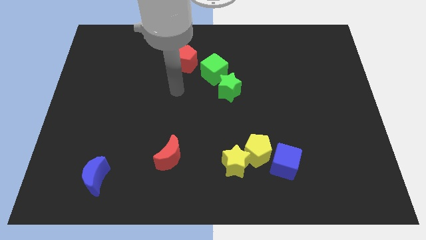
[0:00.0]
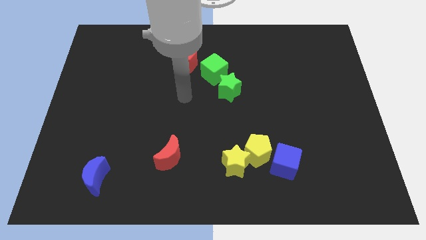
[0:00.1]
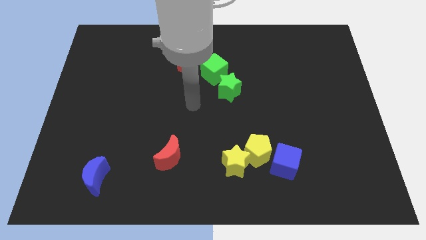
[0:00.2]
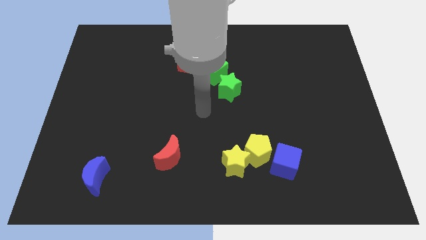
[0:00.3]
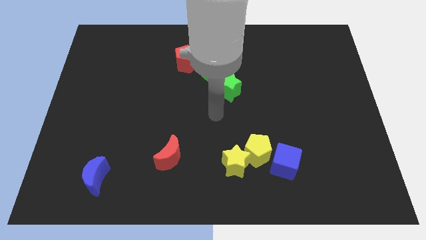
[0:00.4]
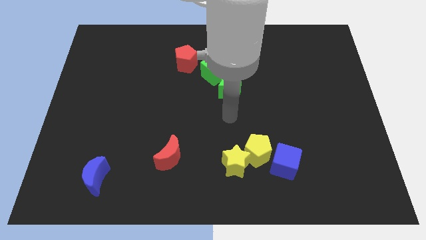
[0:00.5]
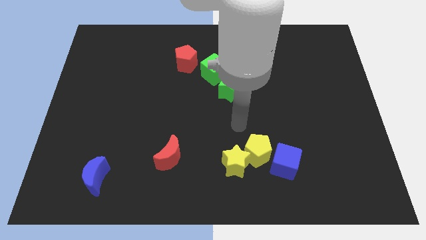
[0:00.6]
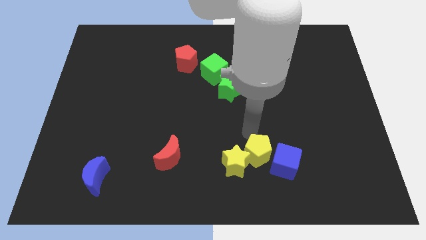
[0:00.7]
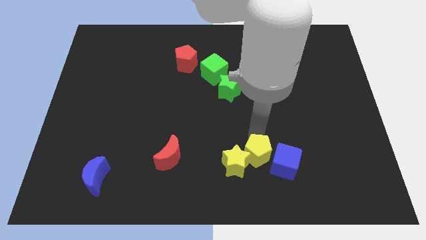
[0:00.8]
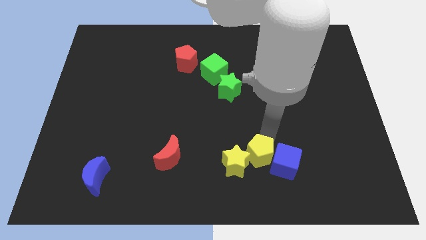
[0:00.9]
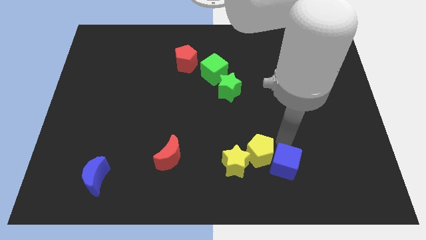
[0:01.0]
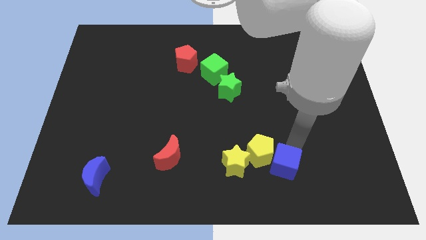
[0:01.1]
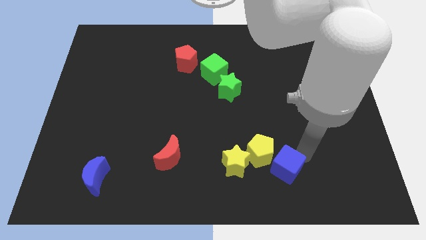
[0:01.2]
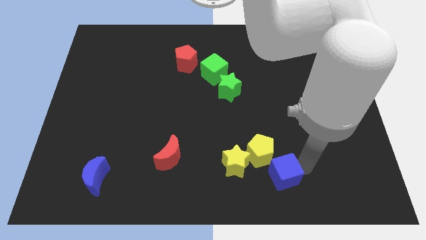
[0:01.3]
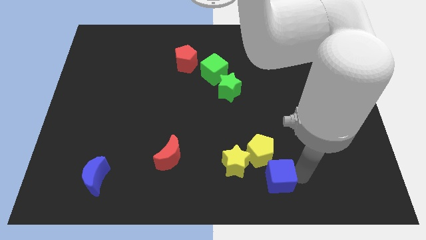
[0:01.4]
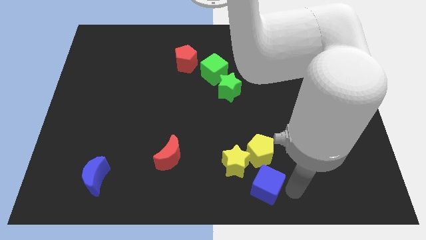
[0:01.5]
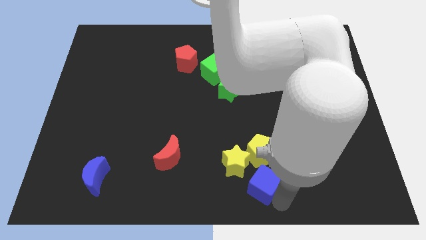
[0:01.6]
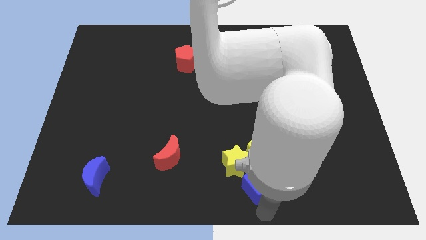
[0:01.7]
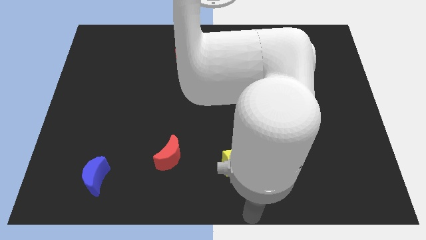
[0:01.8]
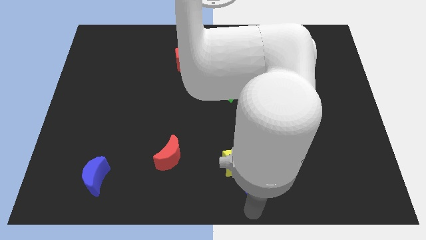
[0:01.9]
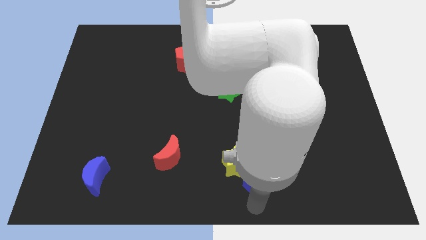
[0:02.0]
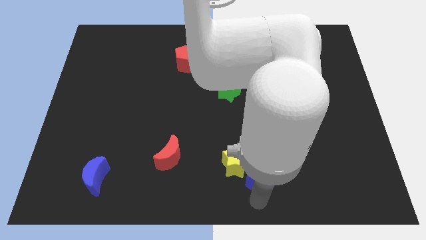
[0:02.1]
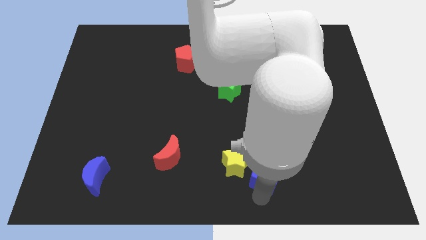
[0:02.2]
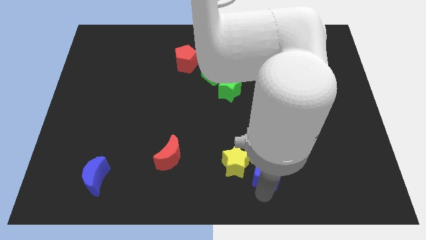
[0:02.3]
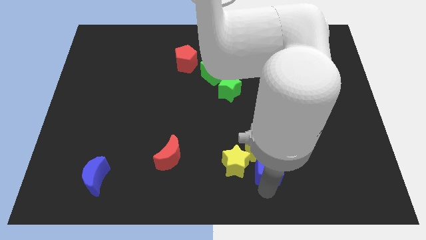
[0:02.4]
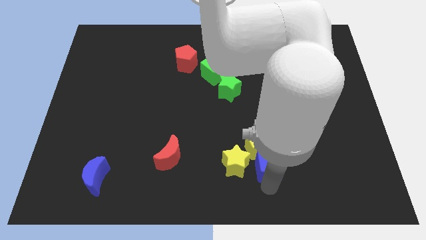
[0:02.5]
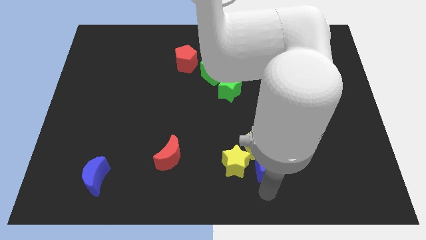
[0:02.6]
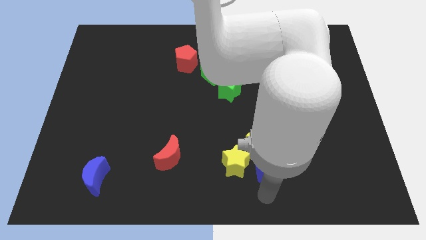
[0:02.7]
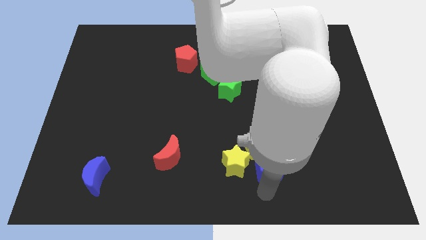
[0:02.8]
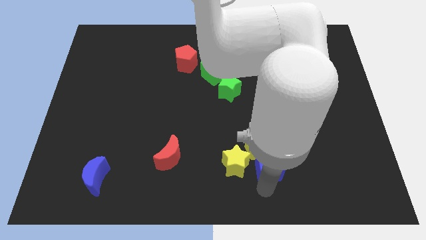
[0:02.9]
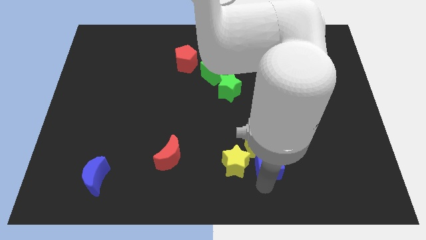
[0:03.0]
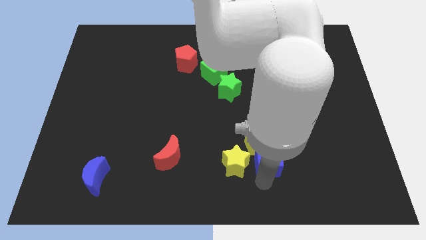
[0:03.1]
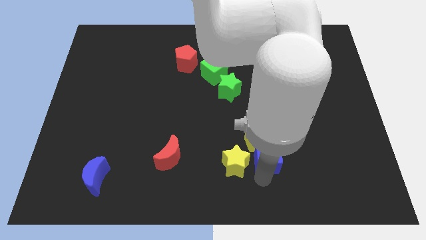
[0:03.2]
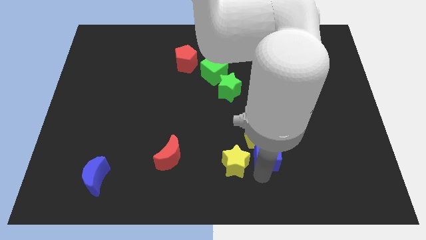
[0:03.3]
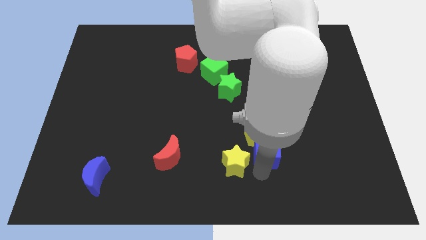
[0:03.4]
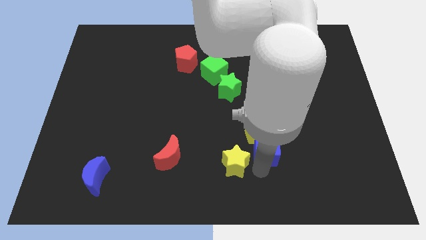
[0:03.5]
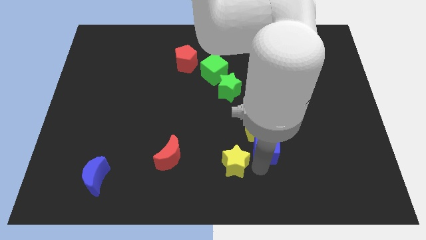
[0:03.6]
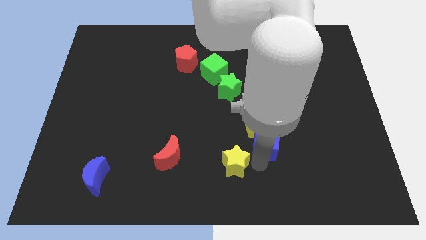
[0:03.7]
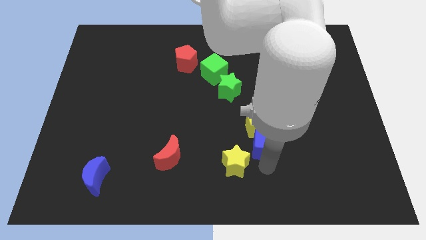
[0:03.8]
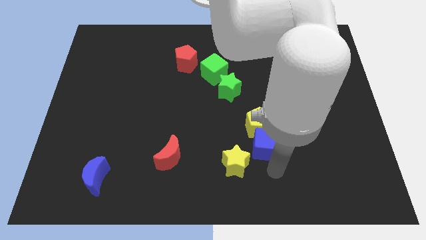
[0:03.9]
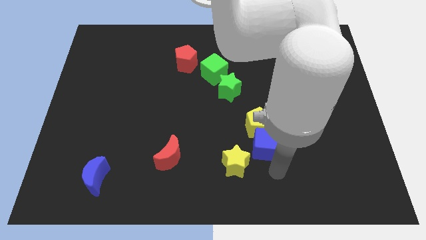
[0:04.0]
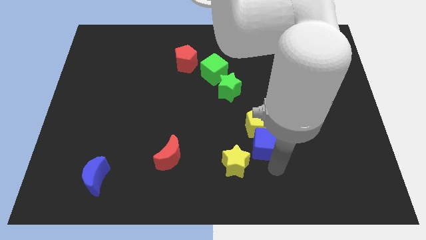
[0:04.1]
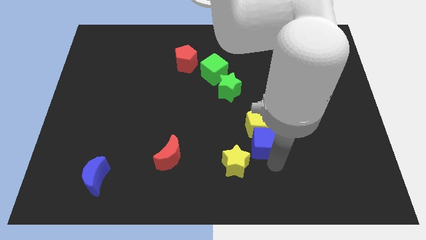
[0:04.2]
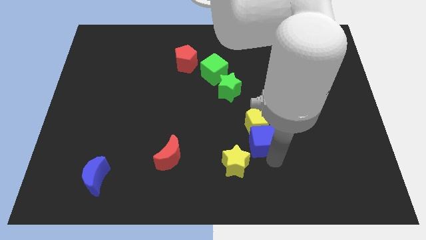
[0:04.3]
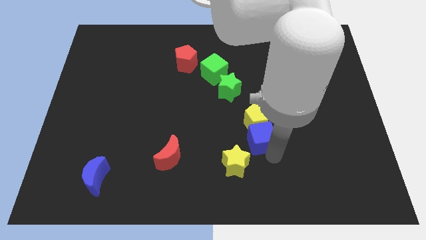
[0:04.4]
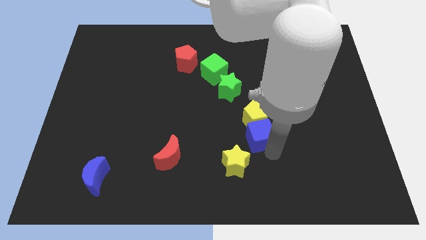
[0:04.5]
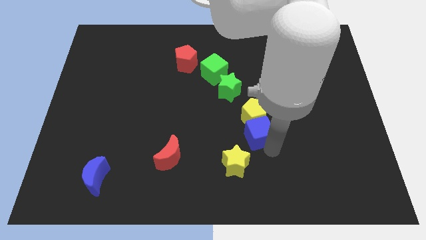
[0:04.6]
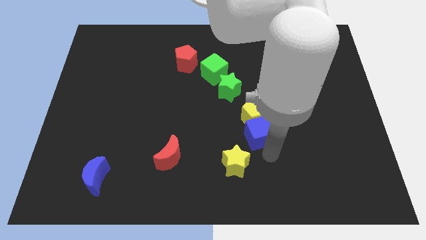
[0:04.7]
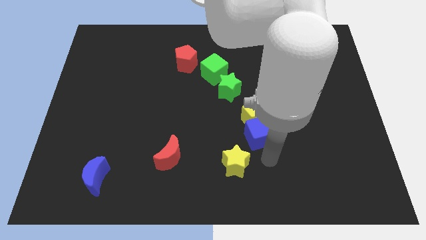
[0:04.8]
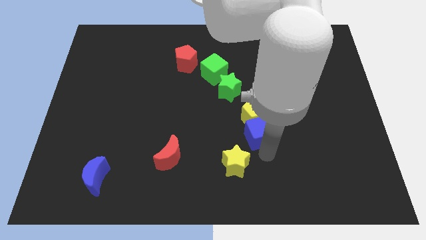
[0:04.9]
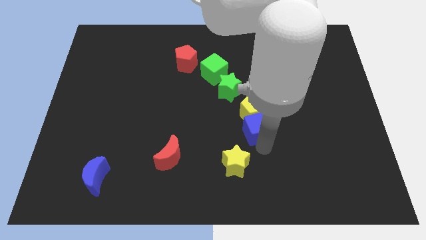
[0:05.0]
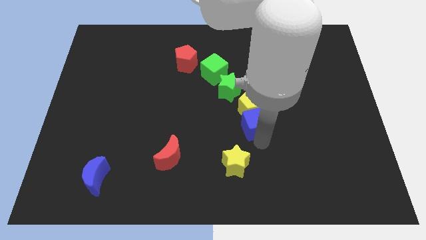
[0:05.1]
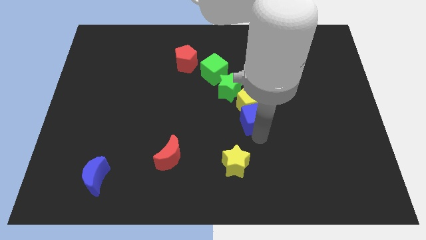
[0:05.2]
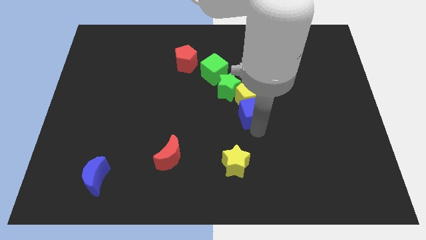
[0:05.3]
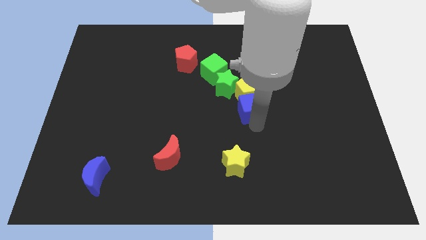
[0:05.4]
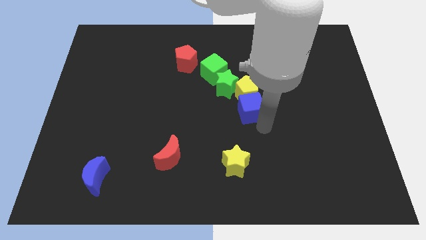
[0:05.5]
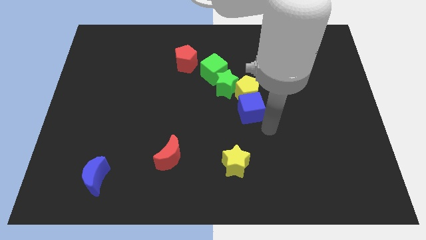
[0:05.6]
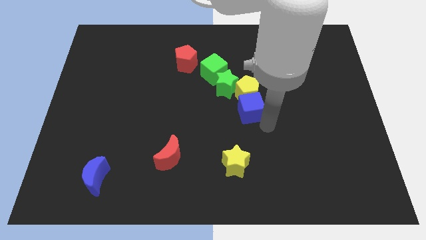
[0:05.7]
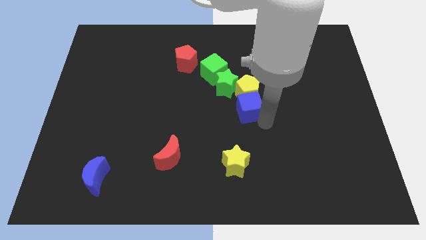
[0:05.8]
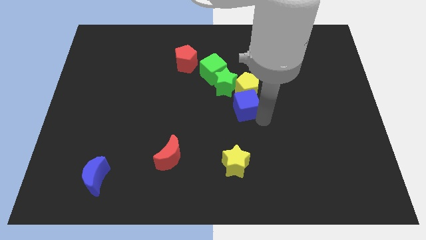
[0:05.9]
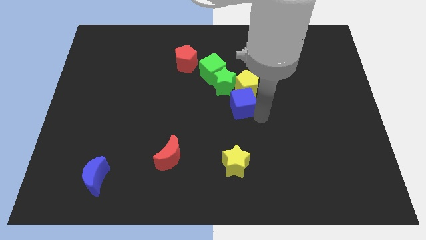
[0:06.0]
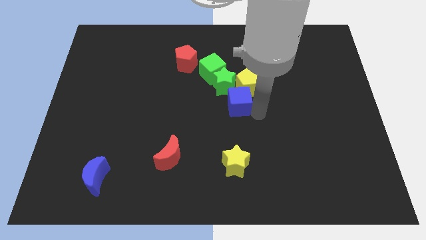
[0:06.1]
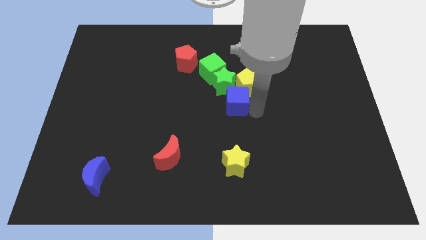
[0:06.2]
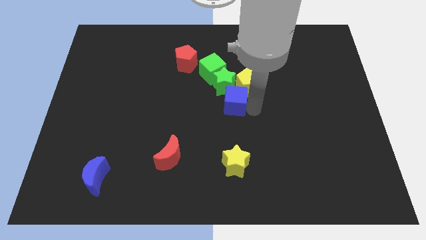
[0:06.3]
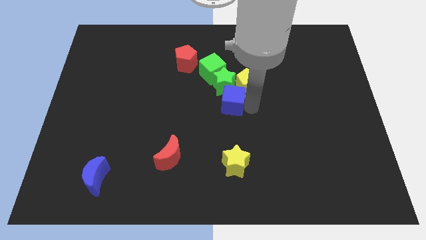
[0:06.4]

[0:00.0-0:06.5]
put the blue cube to the green star

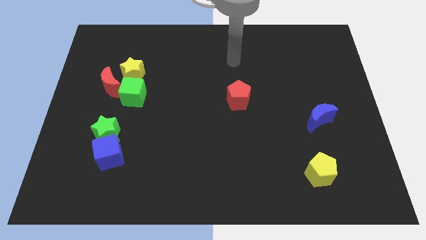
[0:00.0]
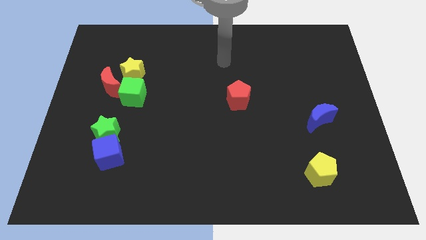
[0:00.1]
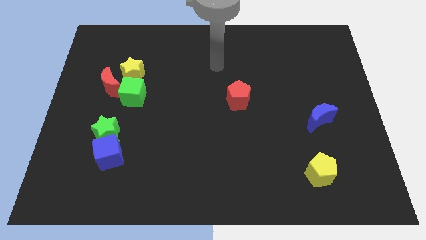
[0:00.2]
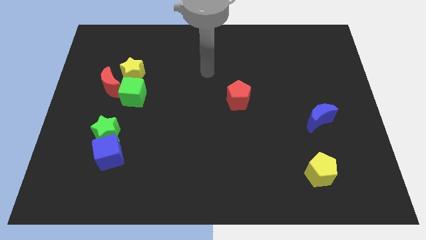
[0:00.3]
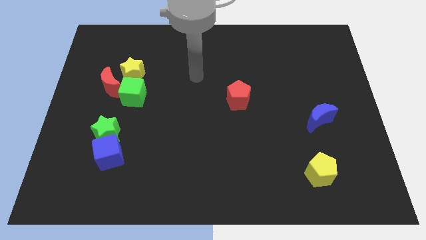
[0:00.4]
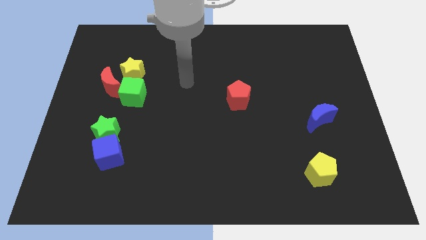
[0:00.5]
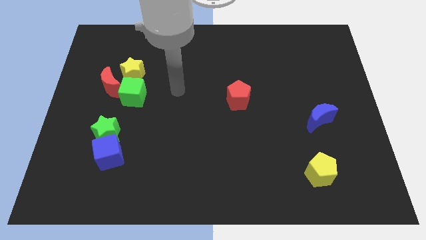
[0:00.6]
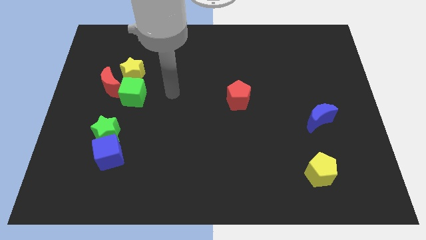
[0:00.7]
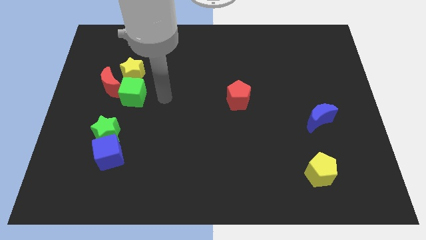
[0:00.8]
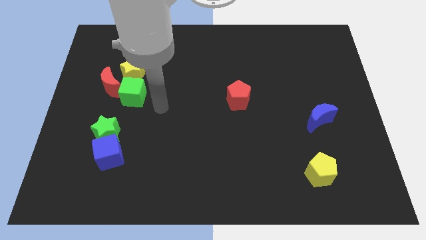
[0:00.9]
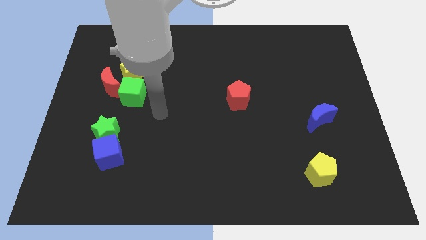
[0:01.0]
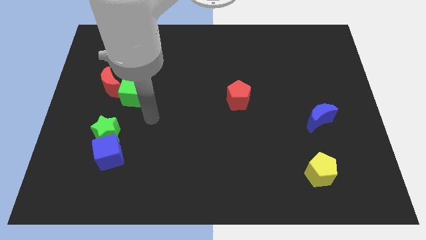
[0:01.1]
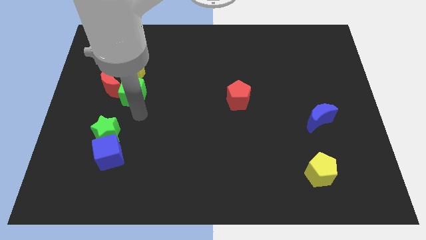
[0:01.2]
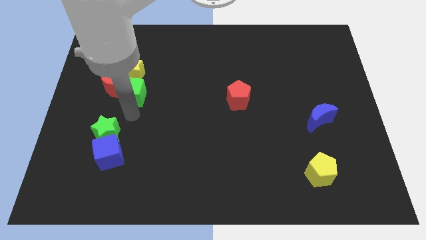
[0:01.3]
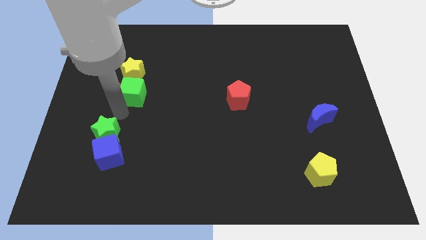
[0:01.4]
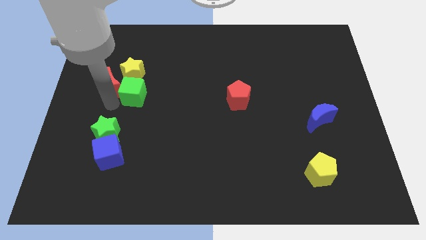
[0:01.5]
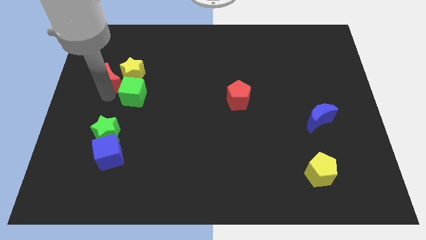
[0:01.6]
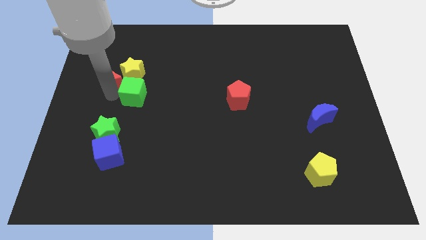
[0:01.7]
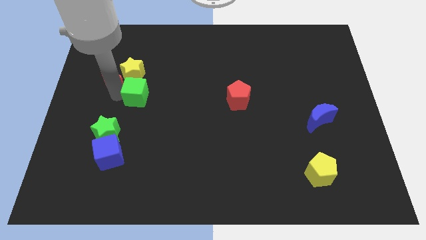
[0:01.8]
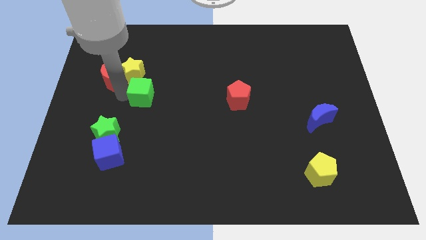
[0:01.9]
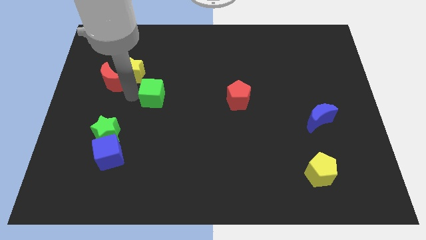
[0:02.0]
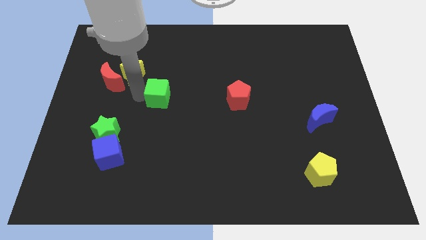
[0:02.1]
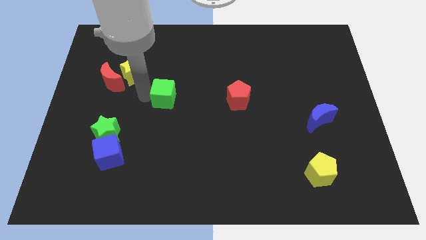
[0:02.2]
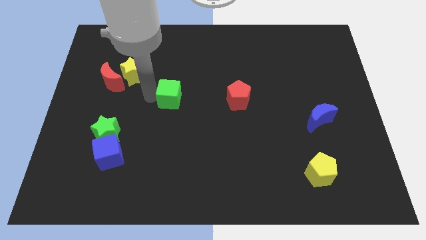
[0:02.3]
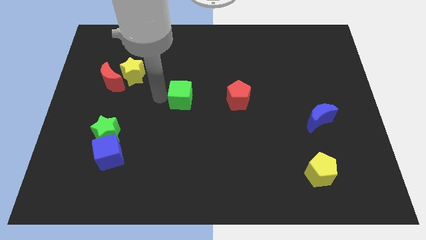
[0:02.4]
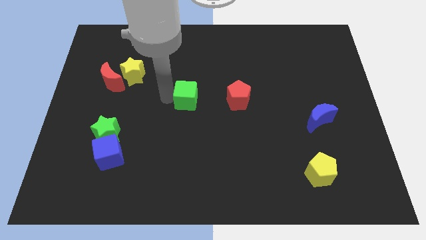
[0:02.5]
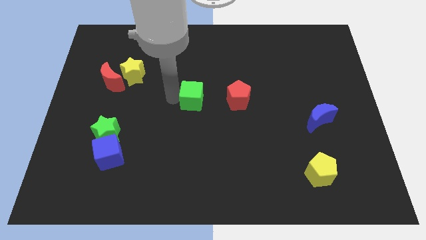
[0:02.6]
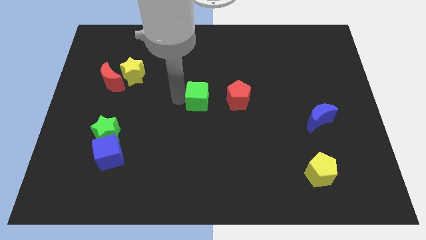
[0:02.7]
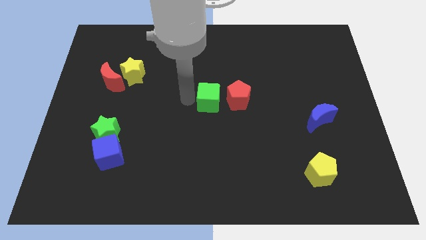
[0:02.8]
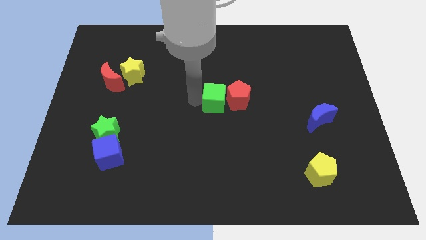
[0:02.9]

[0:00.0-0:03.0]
slide the green cube next to the red pentagon
